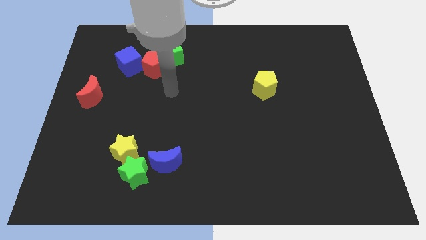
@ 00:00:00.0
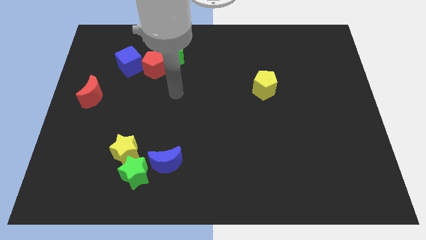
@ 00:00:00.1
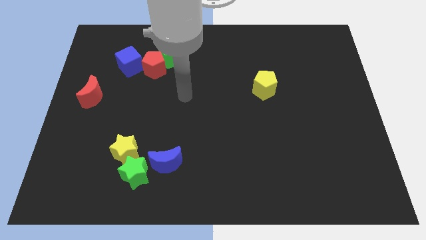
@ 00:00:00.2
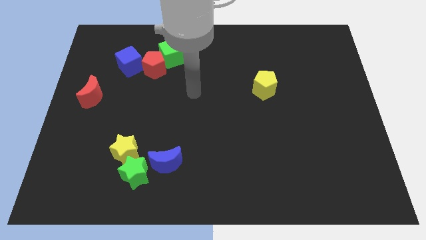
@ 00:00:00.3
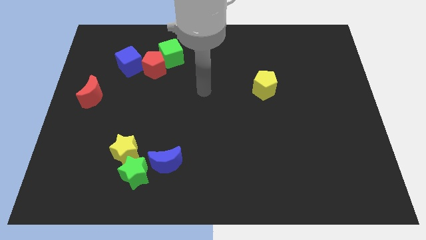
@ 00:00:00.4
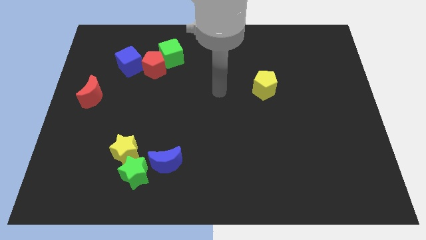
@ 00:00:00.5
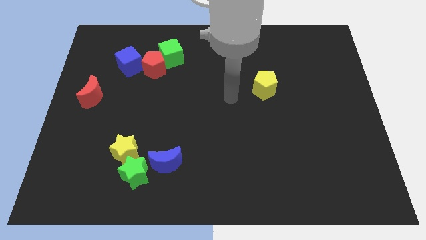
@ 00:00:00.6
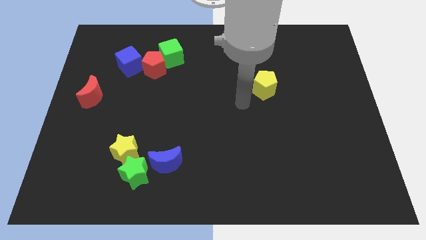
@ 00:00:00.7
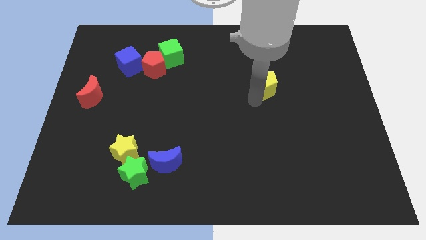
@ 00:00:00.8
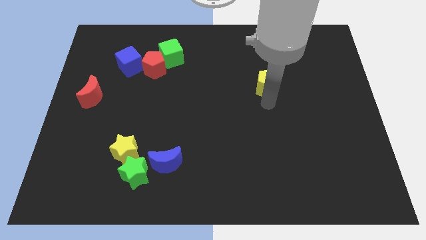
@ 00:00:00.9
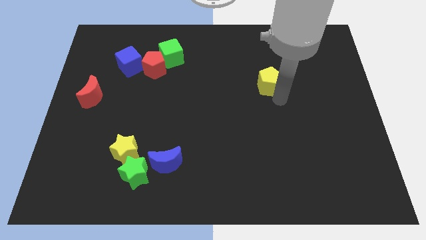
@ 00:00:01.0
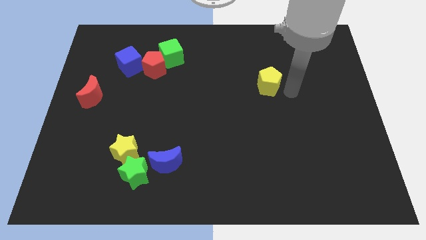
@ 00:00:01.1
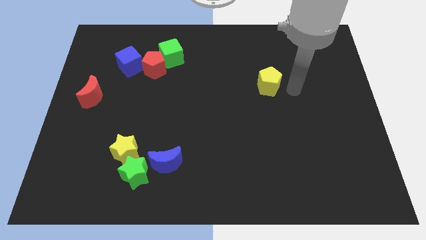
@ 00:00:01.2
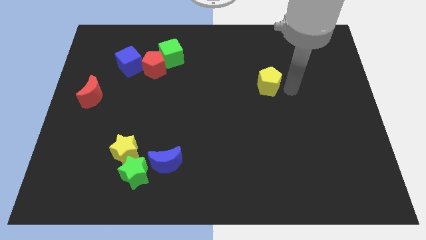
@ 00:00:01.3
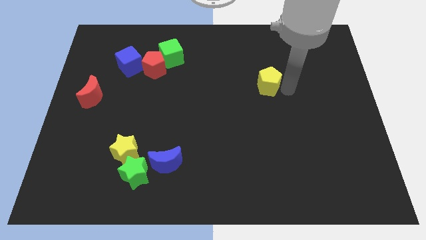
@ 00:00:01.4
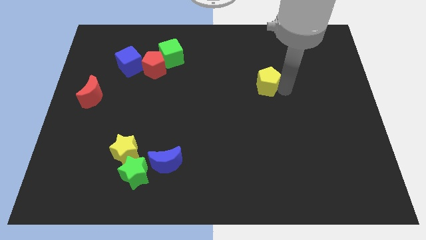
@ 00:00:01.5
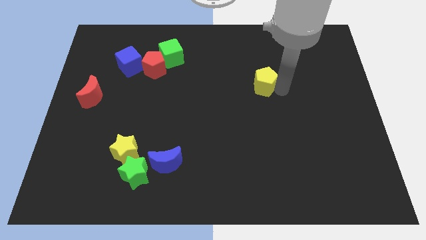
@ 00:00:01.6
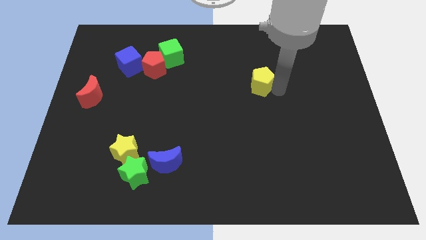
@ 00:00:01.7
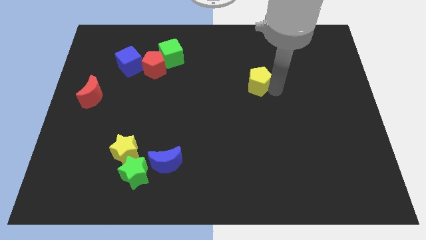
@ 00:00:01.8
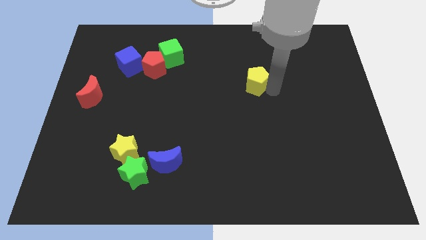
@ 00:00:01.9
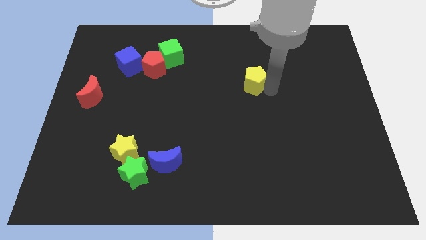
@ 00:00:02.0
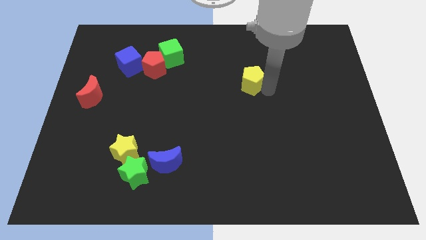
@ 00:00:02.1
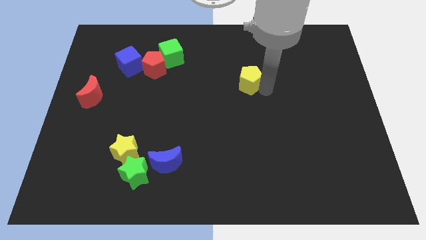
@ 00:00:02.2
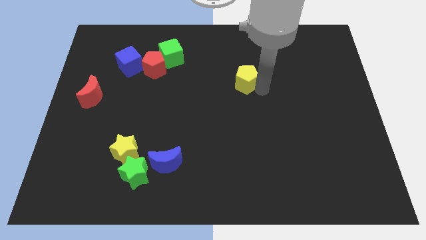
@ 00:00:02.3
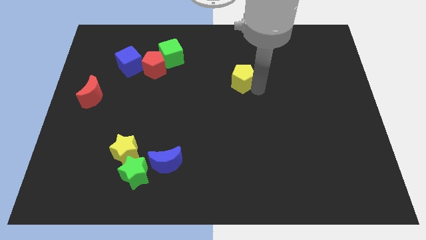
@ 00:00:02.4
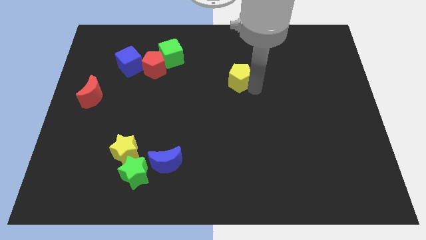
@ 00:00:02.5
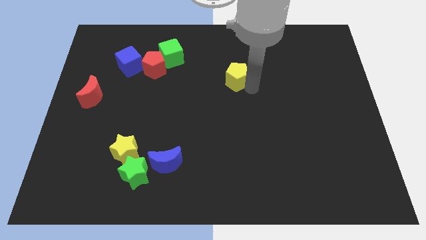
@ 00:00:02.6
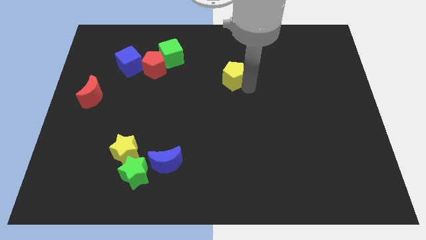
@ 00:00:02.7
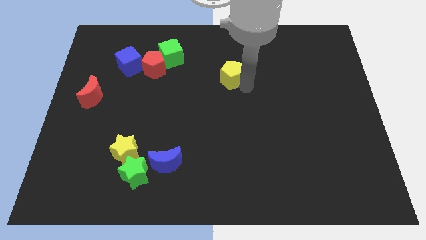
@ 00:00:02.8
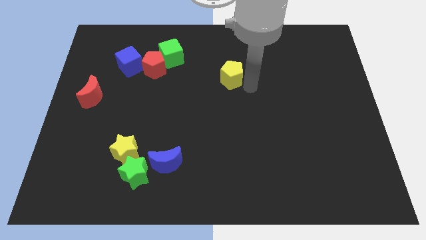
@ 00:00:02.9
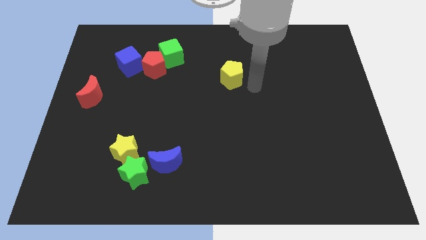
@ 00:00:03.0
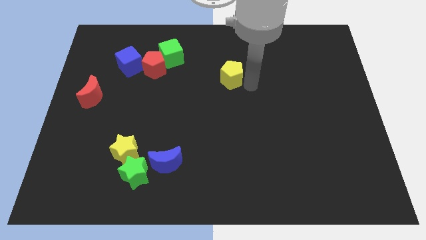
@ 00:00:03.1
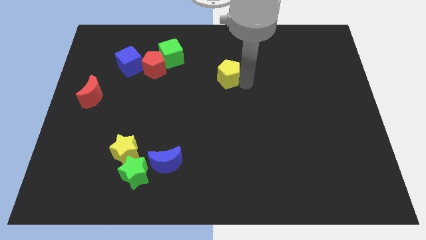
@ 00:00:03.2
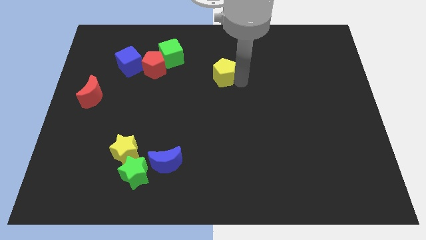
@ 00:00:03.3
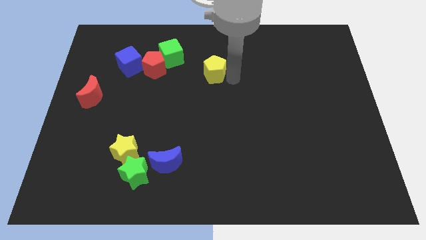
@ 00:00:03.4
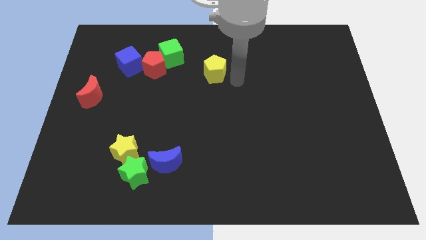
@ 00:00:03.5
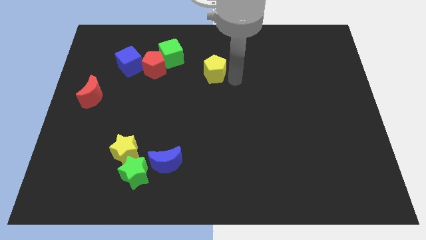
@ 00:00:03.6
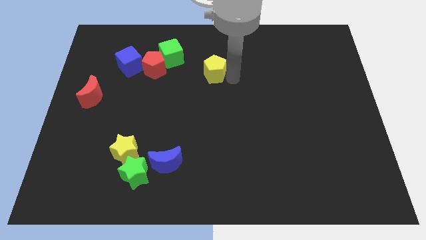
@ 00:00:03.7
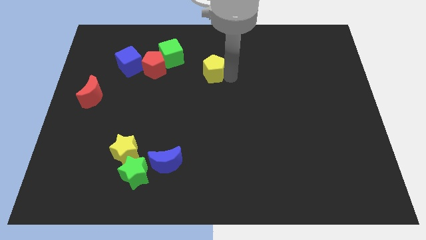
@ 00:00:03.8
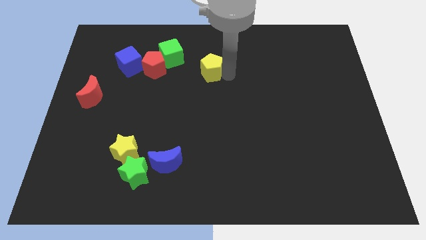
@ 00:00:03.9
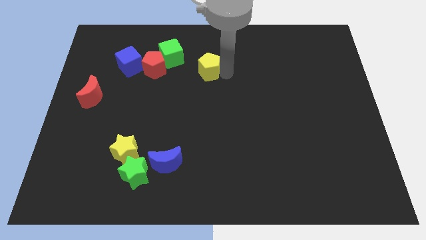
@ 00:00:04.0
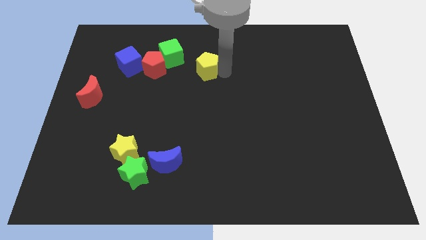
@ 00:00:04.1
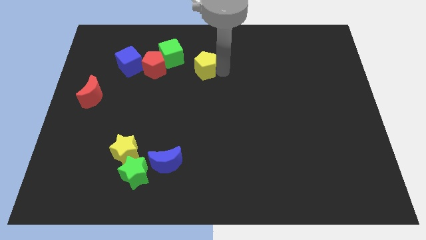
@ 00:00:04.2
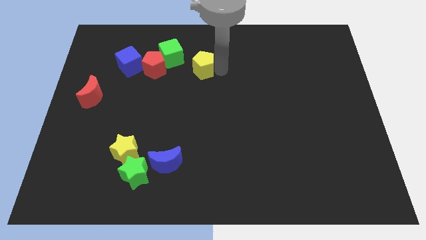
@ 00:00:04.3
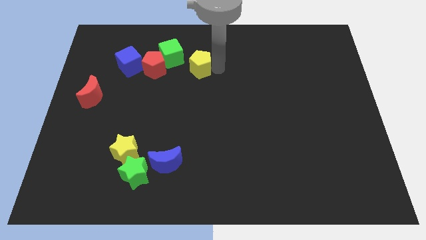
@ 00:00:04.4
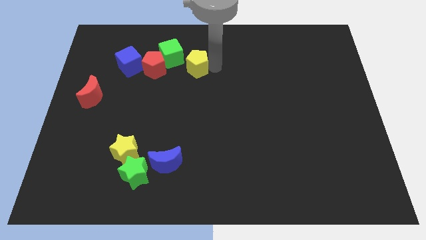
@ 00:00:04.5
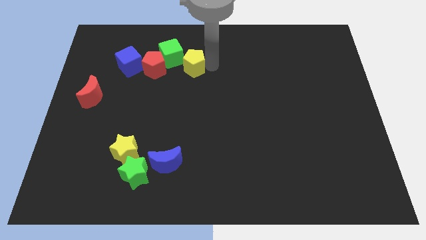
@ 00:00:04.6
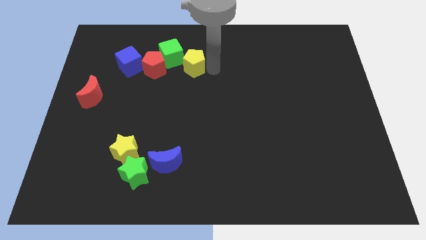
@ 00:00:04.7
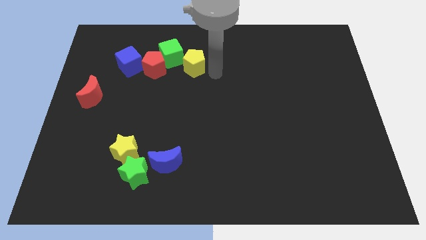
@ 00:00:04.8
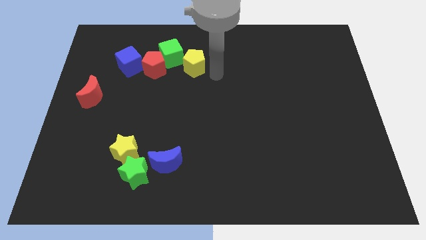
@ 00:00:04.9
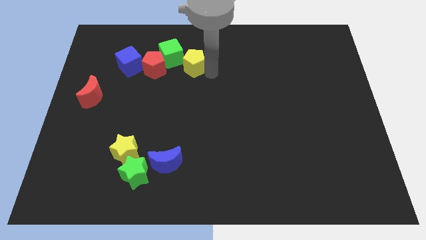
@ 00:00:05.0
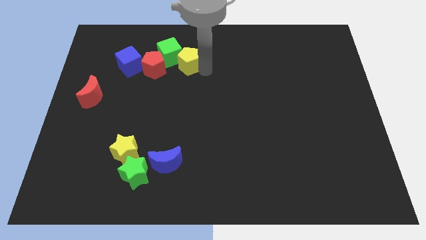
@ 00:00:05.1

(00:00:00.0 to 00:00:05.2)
slide the yellow pentagon close to the green cube

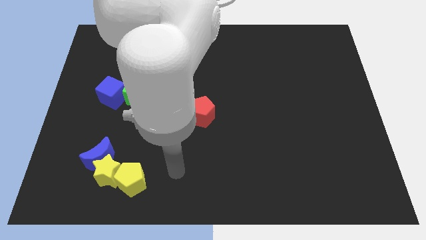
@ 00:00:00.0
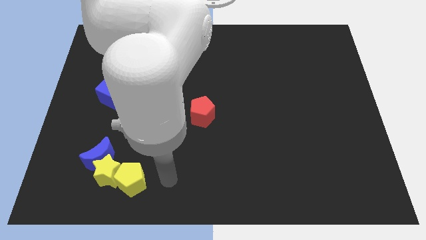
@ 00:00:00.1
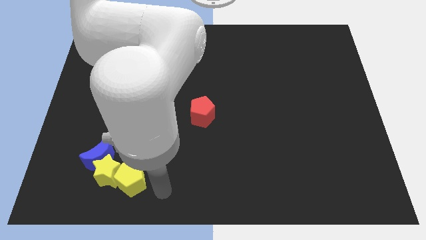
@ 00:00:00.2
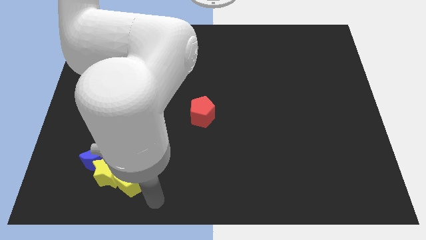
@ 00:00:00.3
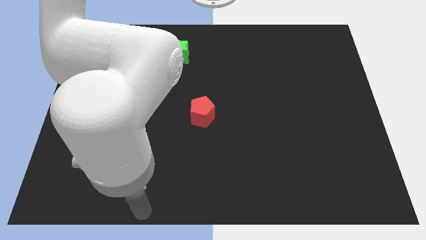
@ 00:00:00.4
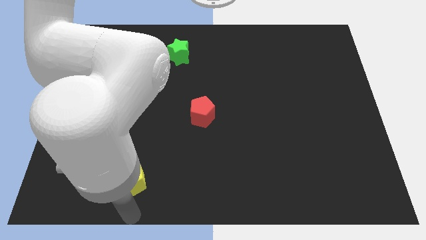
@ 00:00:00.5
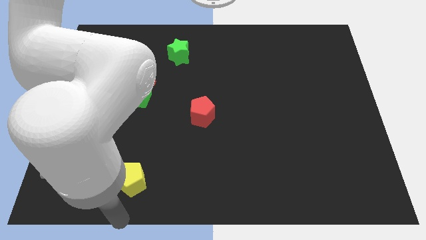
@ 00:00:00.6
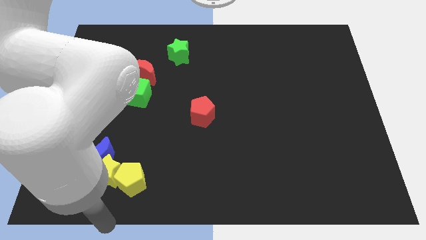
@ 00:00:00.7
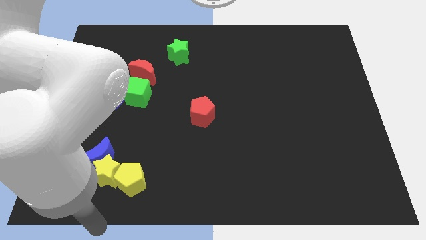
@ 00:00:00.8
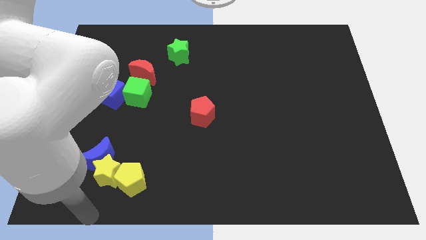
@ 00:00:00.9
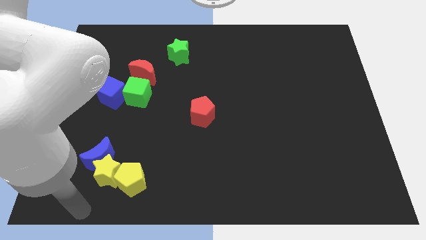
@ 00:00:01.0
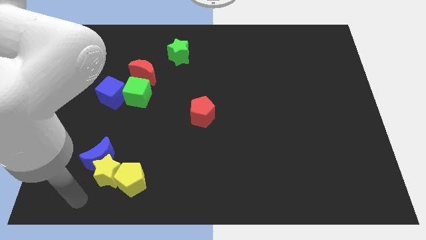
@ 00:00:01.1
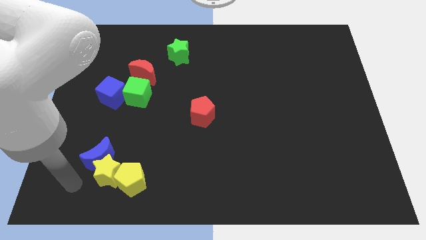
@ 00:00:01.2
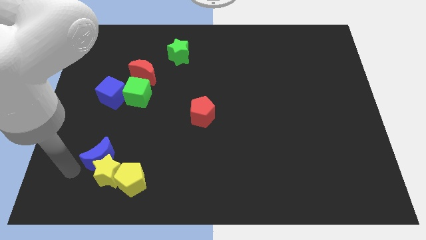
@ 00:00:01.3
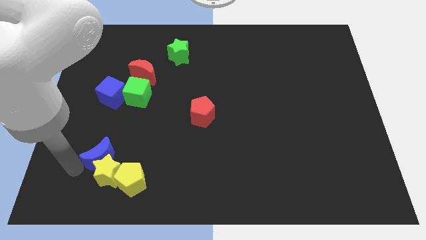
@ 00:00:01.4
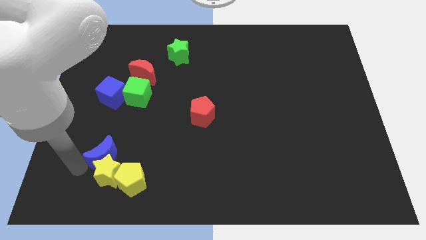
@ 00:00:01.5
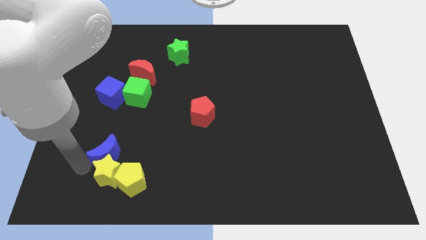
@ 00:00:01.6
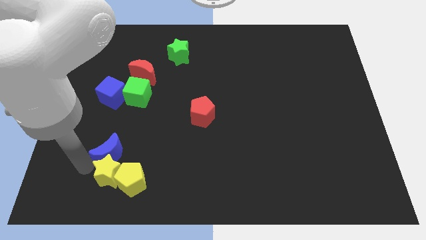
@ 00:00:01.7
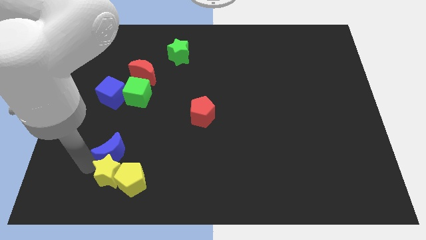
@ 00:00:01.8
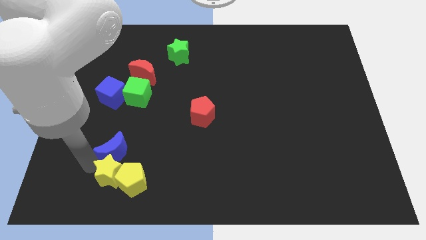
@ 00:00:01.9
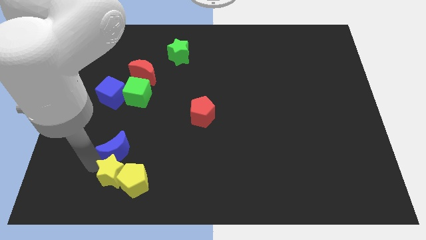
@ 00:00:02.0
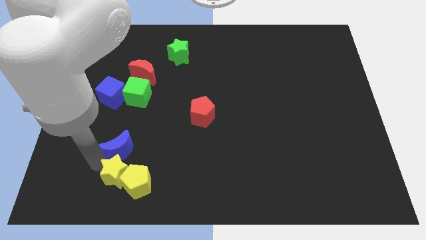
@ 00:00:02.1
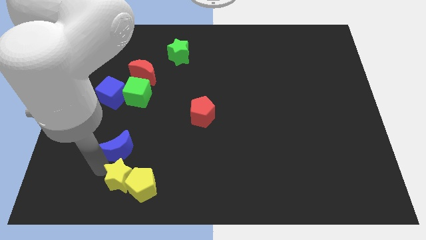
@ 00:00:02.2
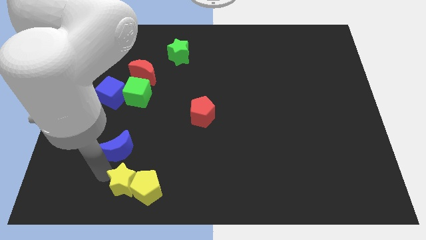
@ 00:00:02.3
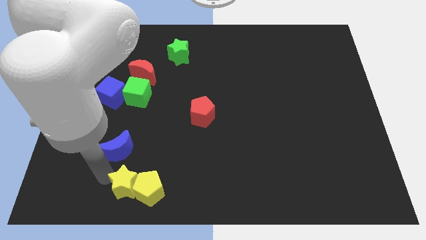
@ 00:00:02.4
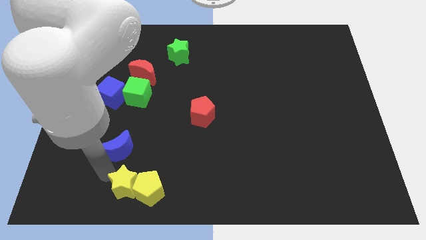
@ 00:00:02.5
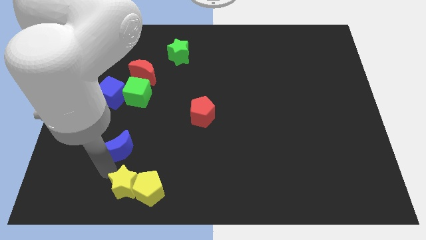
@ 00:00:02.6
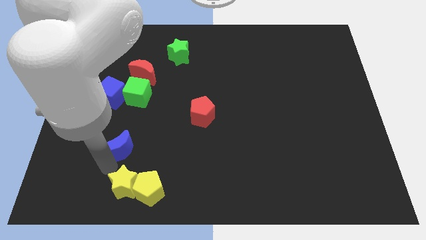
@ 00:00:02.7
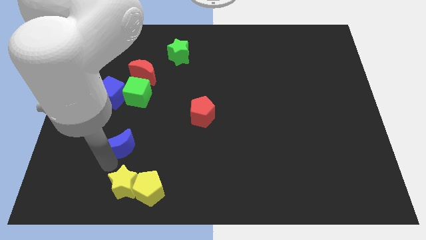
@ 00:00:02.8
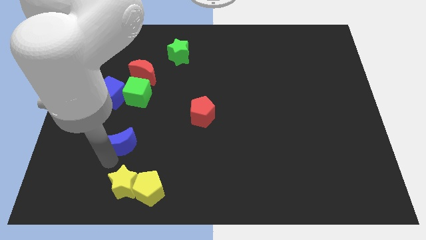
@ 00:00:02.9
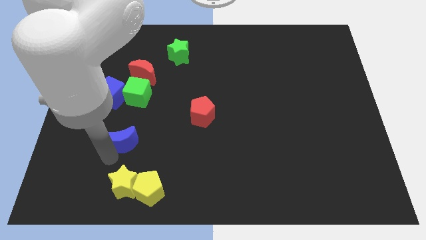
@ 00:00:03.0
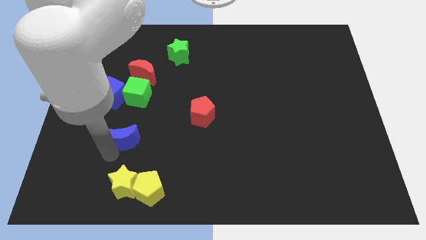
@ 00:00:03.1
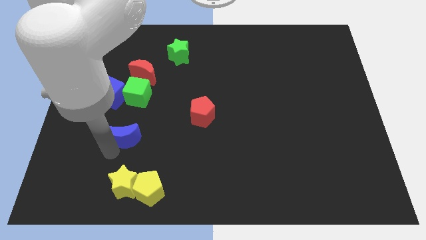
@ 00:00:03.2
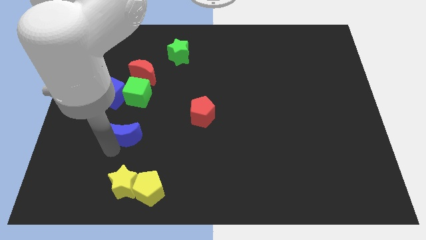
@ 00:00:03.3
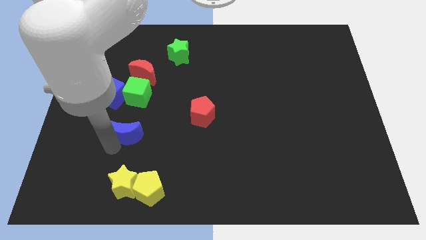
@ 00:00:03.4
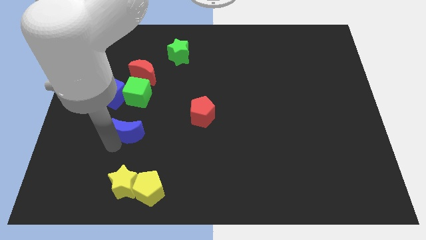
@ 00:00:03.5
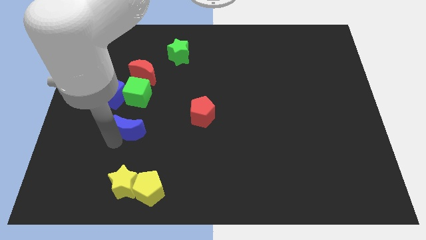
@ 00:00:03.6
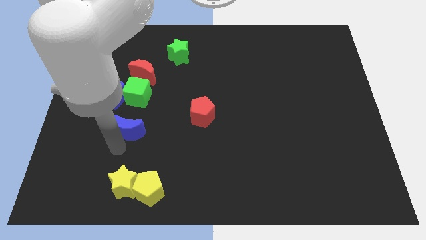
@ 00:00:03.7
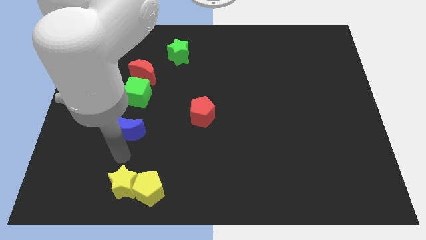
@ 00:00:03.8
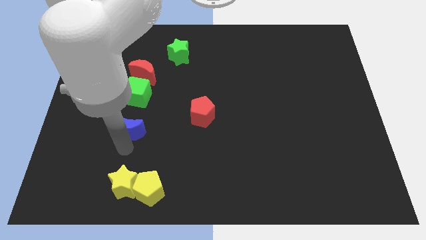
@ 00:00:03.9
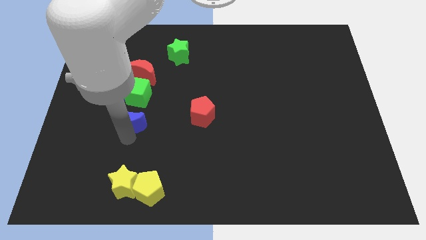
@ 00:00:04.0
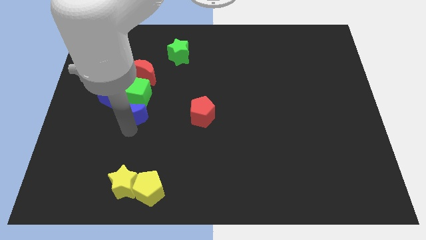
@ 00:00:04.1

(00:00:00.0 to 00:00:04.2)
move the blue moon next to the green cube
